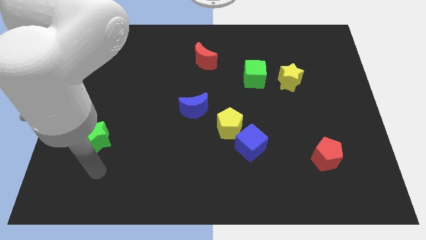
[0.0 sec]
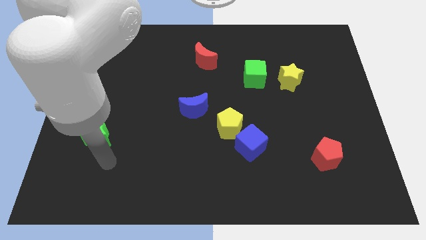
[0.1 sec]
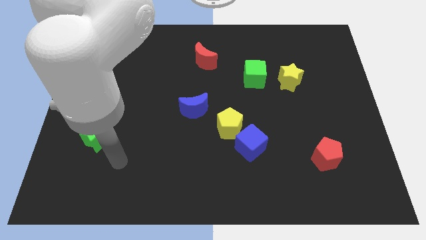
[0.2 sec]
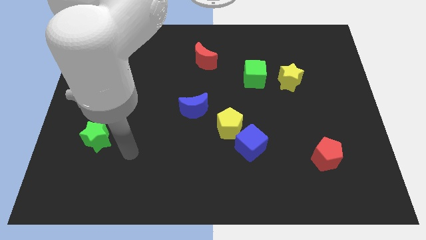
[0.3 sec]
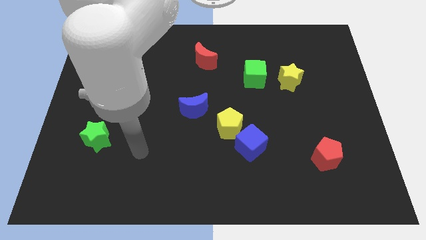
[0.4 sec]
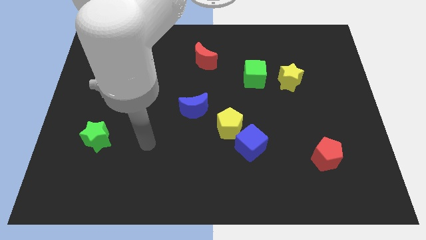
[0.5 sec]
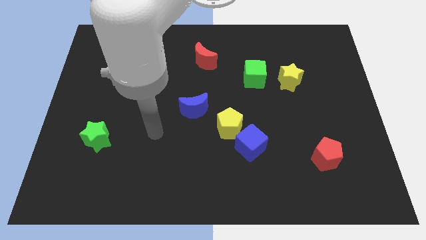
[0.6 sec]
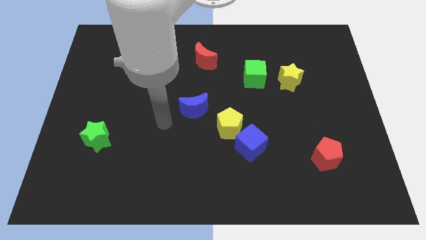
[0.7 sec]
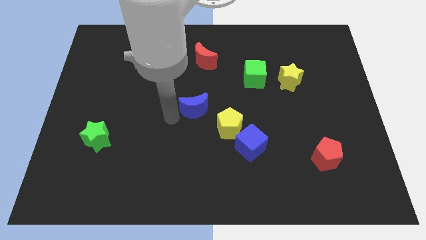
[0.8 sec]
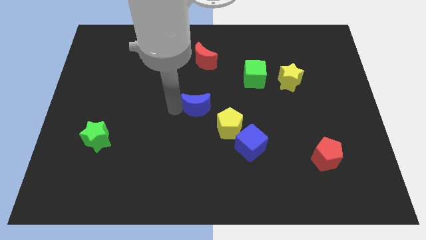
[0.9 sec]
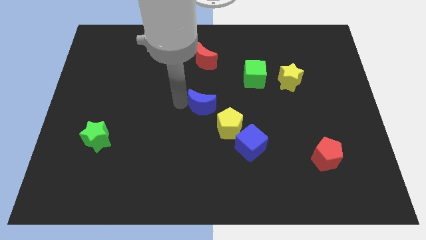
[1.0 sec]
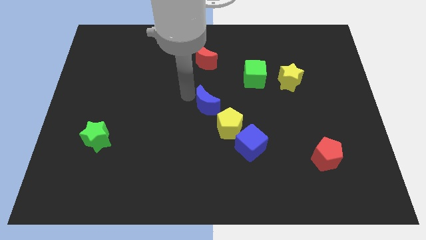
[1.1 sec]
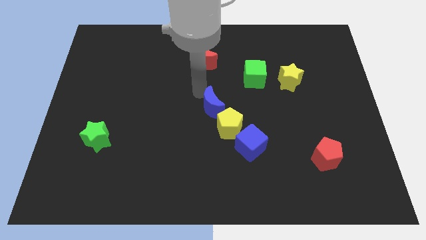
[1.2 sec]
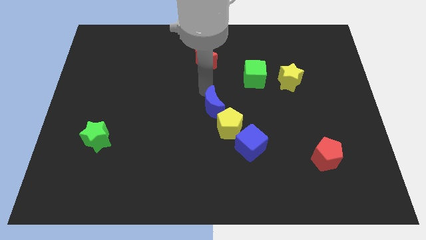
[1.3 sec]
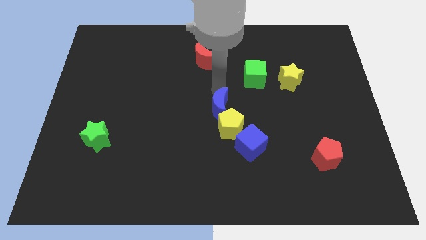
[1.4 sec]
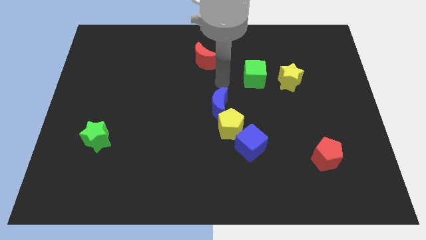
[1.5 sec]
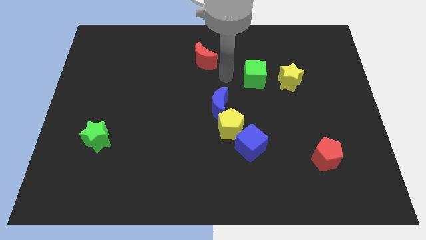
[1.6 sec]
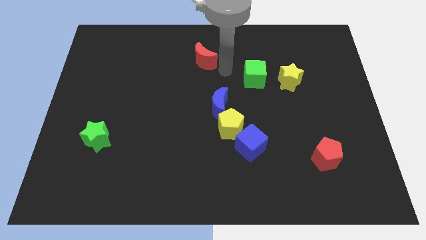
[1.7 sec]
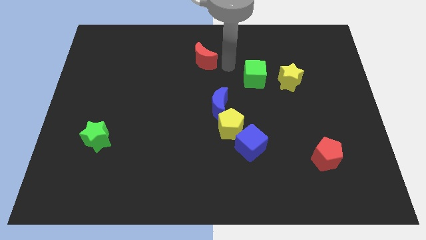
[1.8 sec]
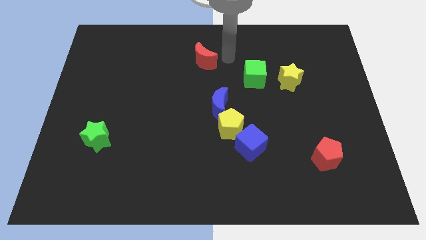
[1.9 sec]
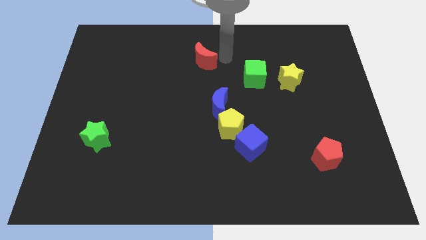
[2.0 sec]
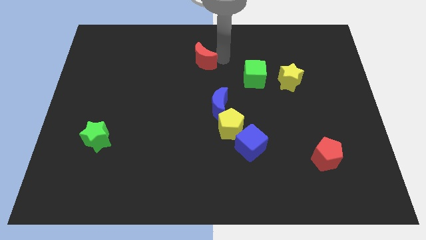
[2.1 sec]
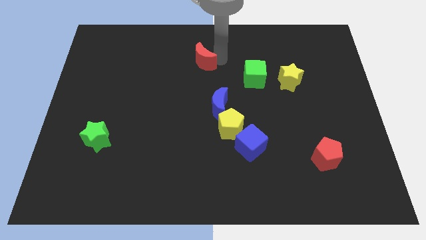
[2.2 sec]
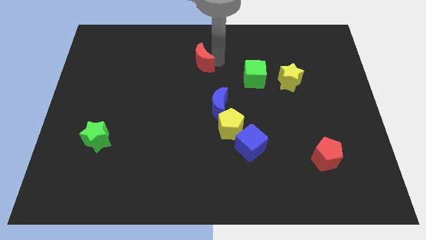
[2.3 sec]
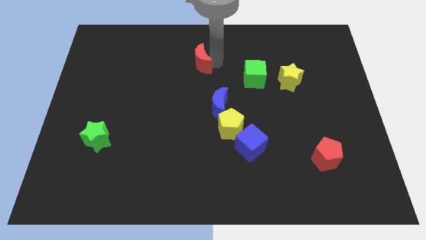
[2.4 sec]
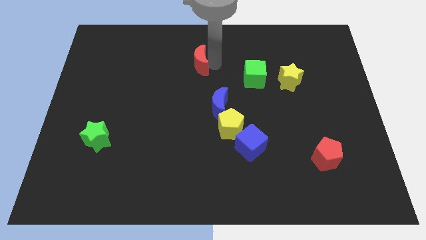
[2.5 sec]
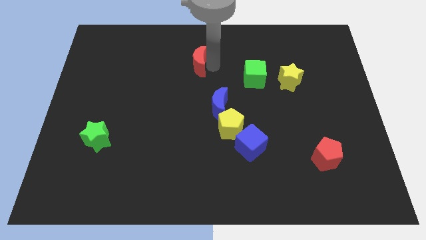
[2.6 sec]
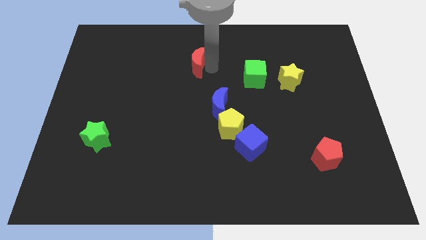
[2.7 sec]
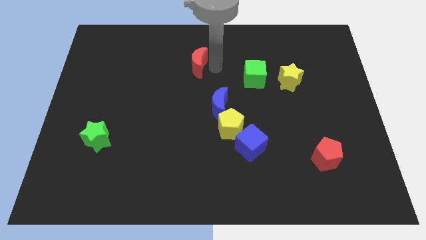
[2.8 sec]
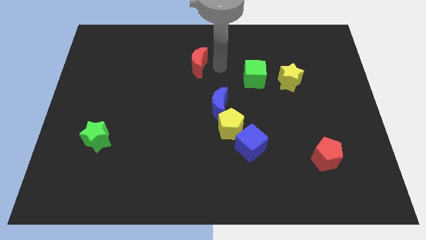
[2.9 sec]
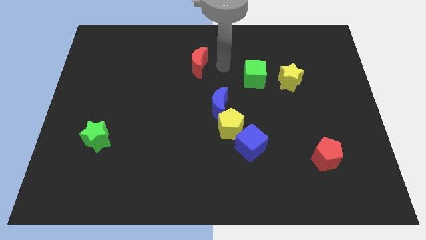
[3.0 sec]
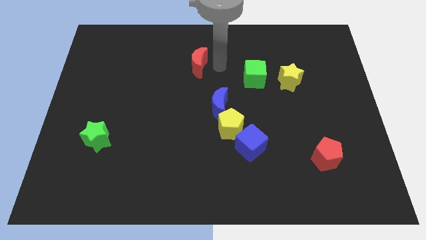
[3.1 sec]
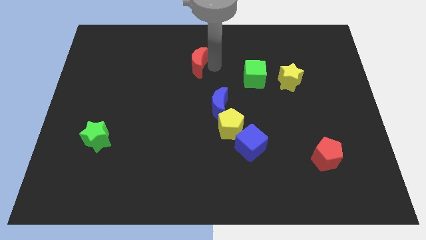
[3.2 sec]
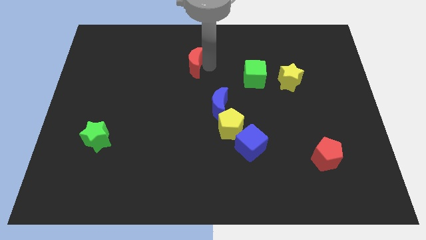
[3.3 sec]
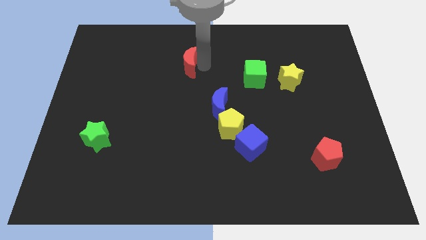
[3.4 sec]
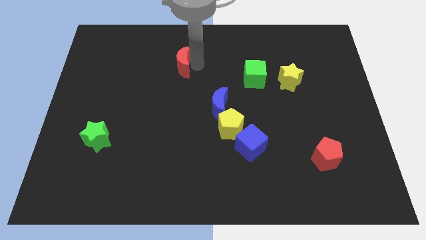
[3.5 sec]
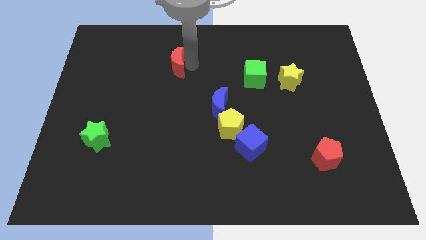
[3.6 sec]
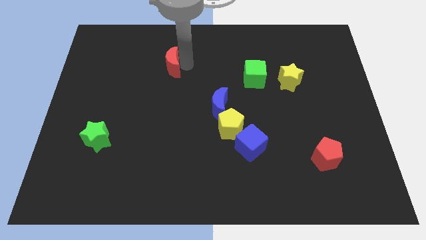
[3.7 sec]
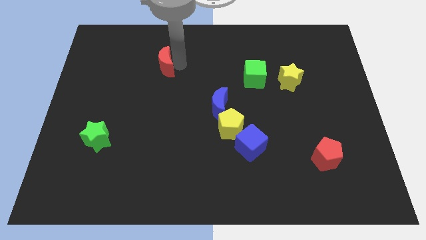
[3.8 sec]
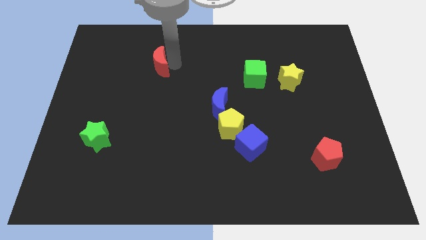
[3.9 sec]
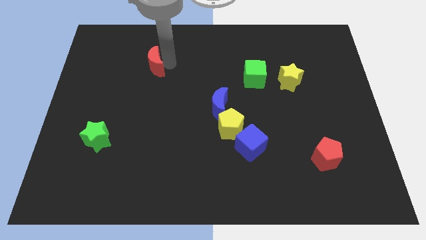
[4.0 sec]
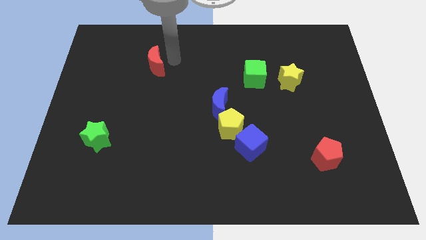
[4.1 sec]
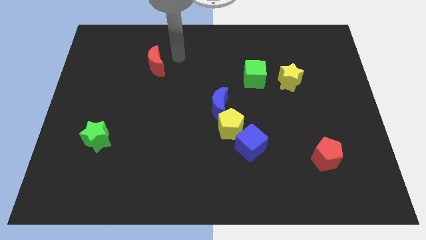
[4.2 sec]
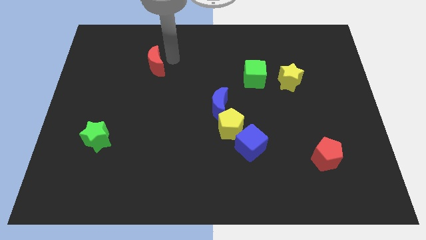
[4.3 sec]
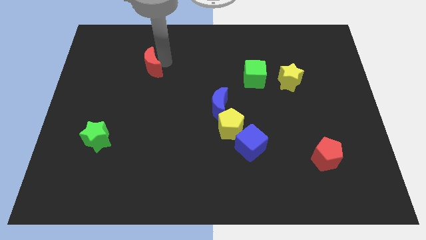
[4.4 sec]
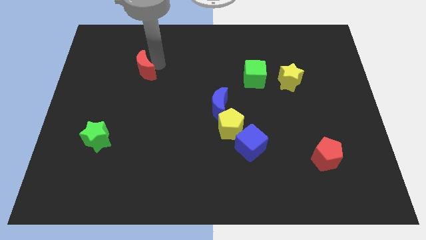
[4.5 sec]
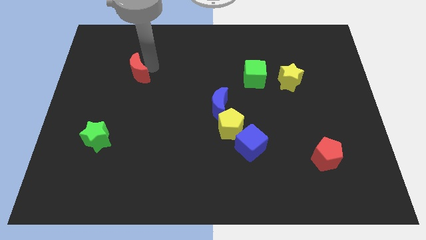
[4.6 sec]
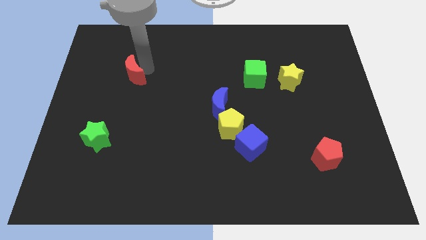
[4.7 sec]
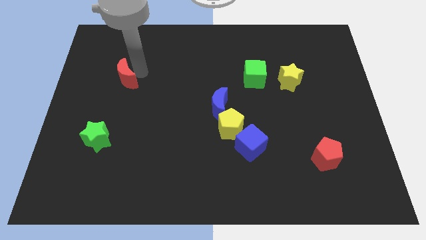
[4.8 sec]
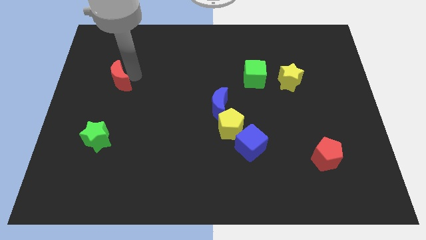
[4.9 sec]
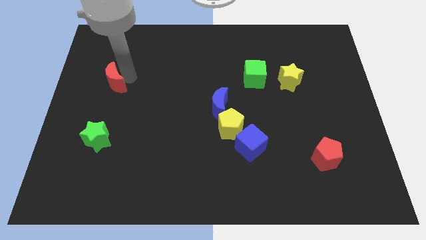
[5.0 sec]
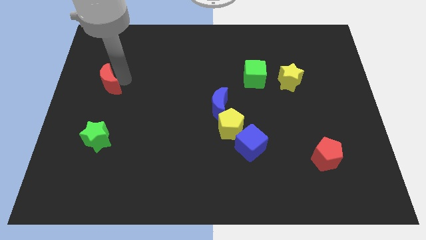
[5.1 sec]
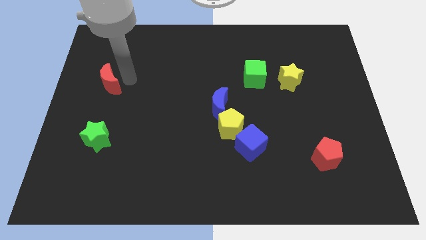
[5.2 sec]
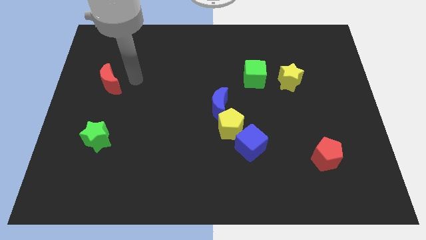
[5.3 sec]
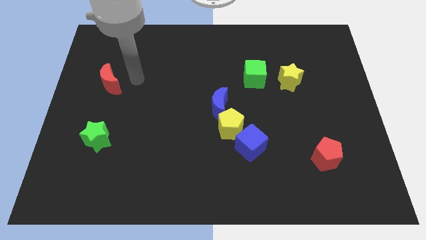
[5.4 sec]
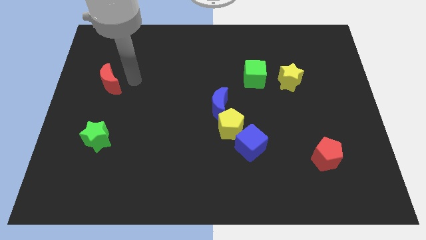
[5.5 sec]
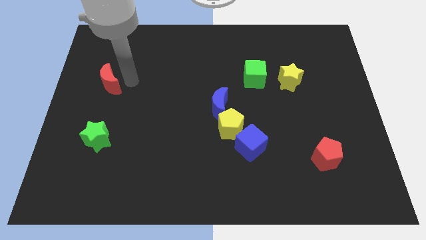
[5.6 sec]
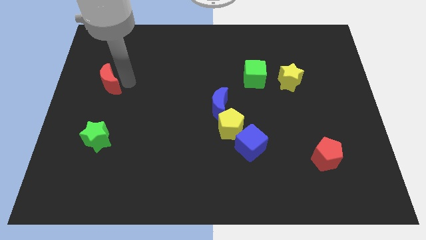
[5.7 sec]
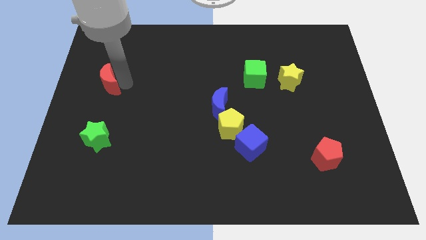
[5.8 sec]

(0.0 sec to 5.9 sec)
push the red moon to the left side
